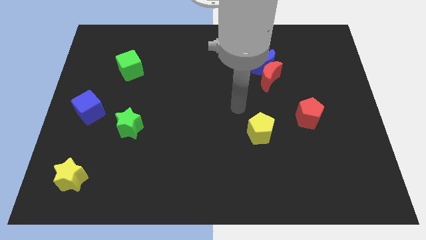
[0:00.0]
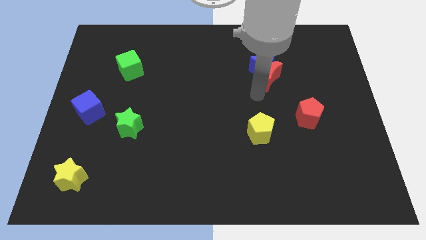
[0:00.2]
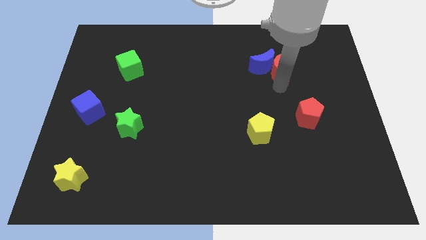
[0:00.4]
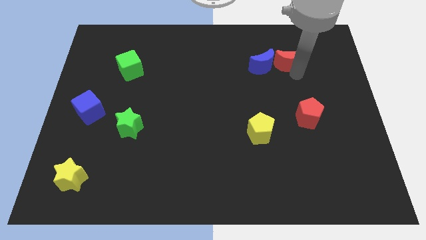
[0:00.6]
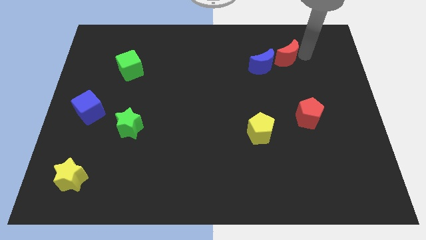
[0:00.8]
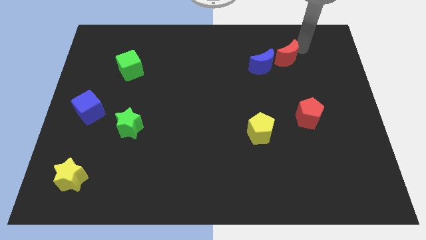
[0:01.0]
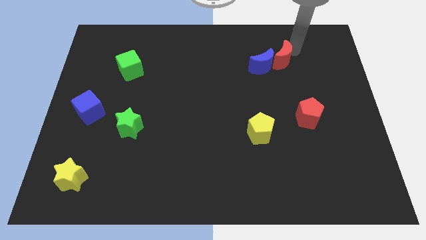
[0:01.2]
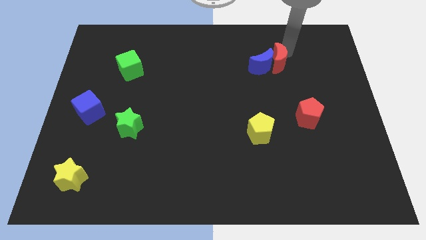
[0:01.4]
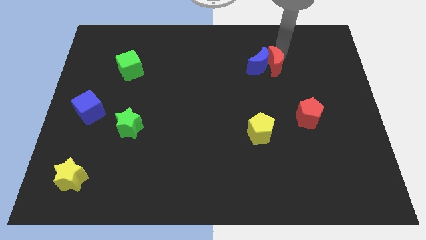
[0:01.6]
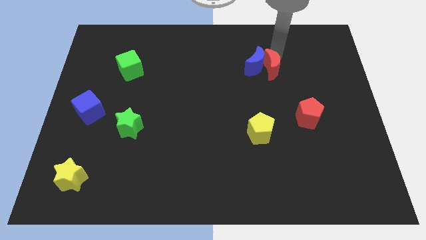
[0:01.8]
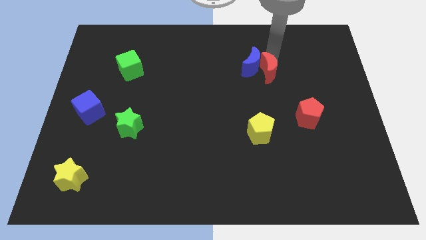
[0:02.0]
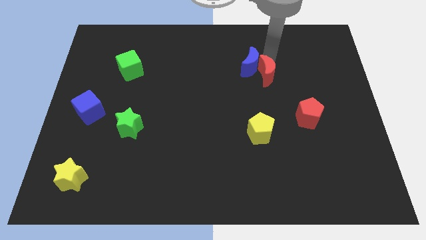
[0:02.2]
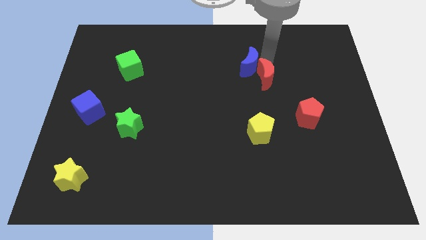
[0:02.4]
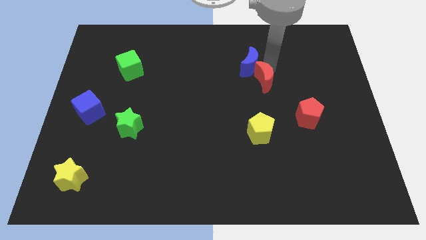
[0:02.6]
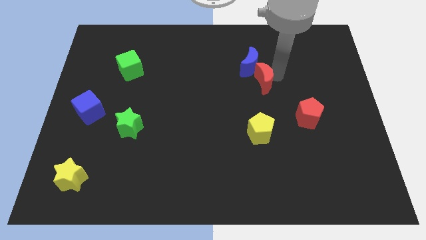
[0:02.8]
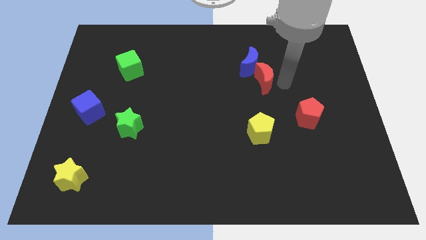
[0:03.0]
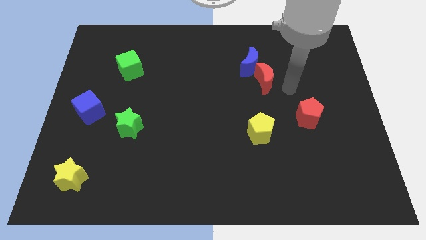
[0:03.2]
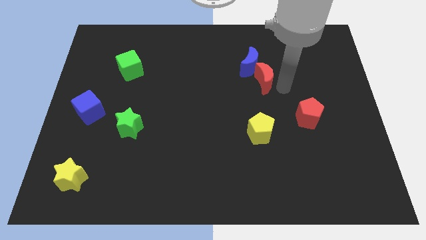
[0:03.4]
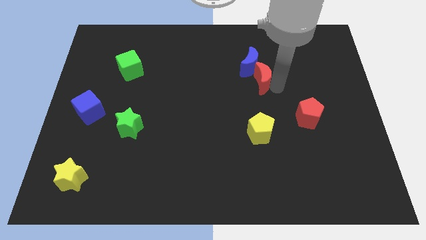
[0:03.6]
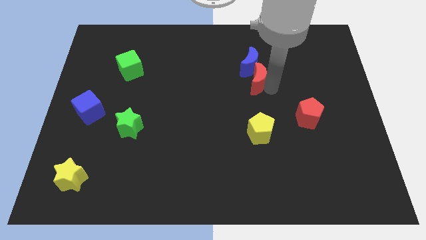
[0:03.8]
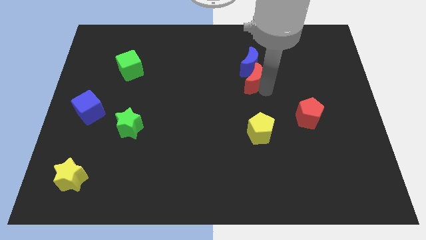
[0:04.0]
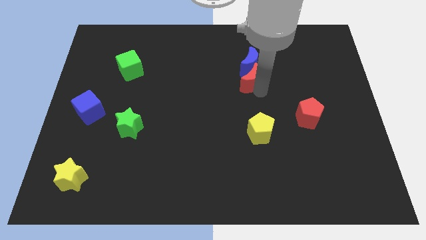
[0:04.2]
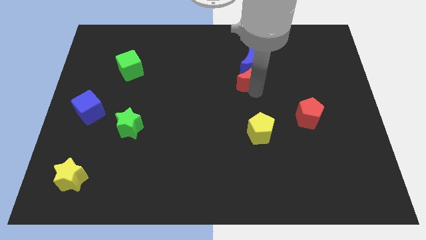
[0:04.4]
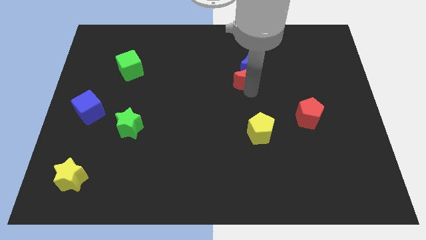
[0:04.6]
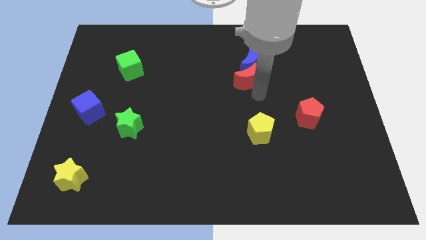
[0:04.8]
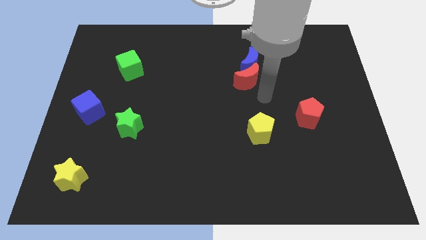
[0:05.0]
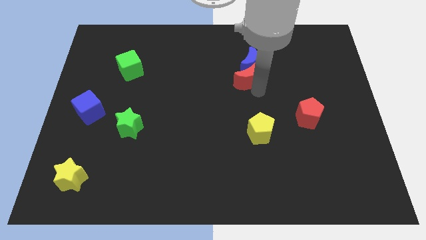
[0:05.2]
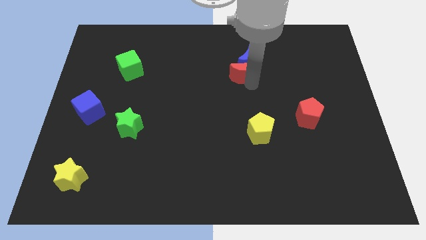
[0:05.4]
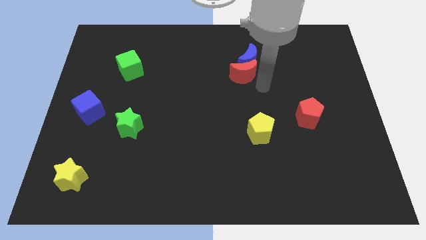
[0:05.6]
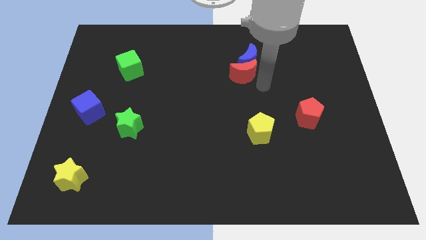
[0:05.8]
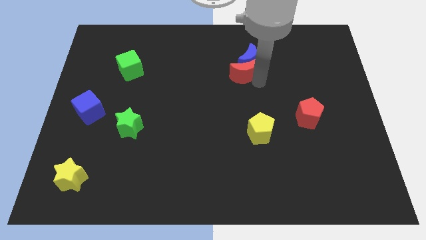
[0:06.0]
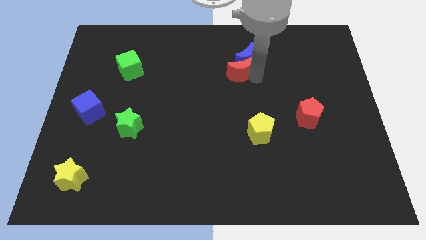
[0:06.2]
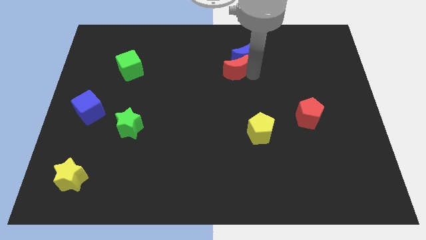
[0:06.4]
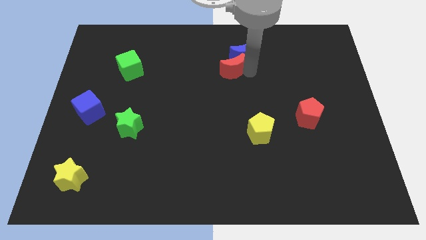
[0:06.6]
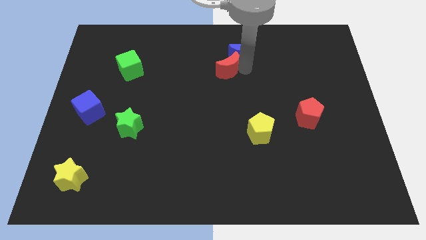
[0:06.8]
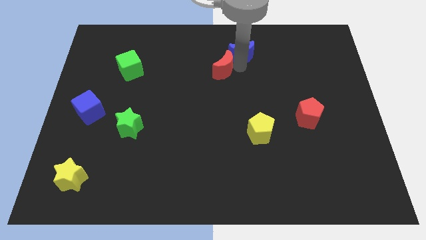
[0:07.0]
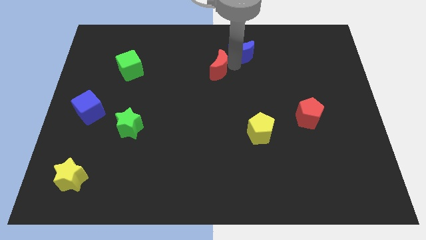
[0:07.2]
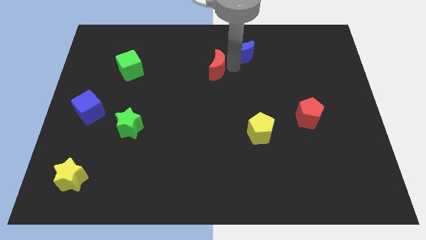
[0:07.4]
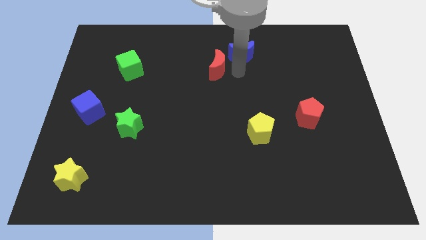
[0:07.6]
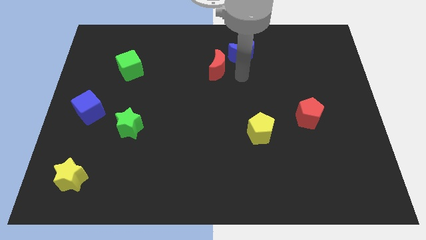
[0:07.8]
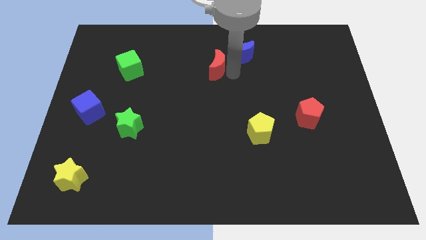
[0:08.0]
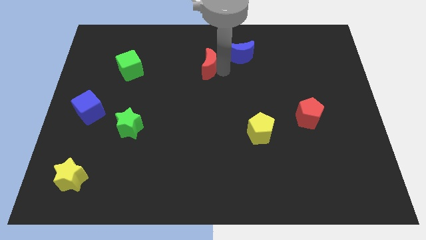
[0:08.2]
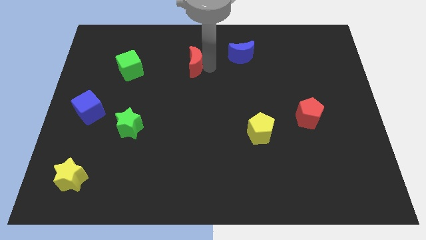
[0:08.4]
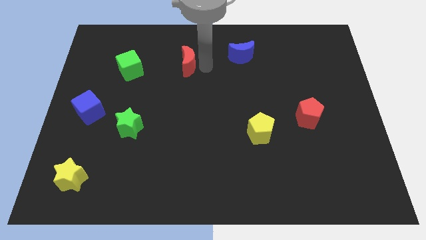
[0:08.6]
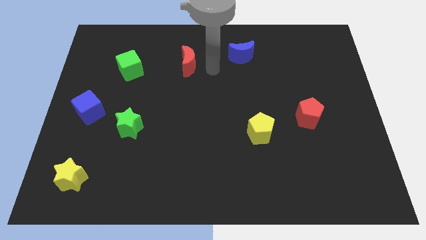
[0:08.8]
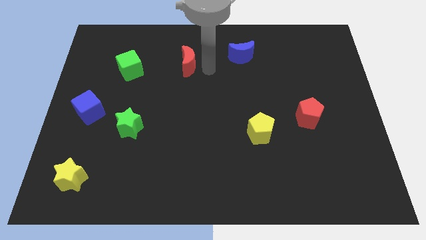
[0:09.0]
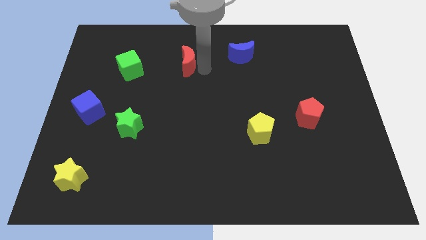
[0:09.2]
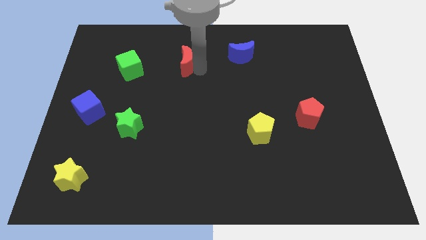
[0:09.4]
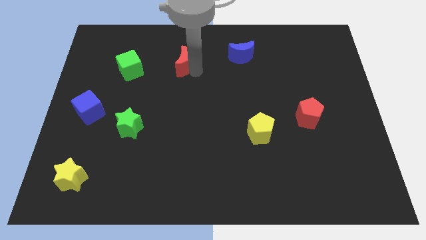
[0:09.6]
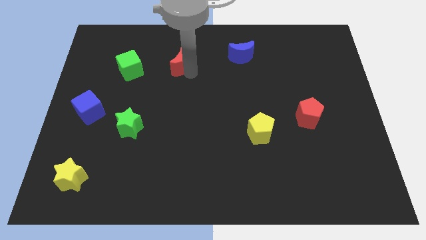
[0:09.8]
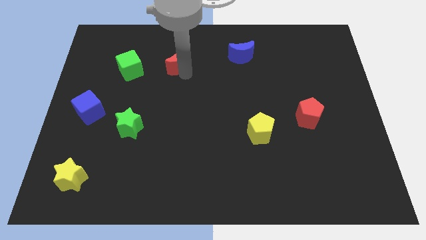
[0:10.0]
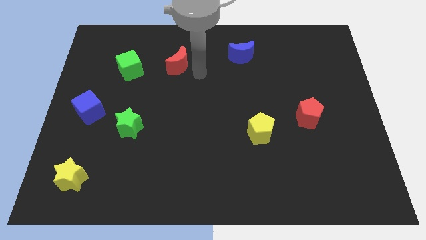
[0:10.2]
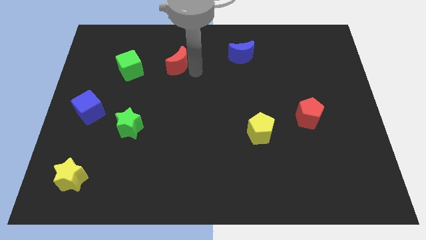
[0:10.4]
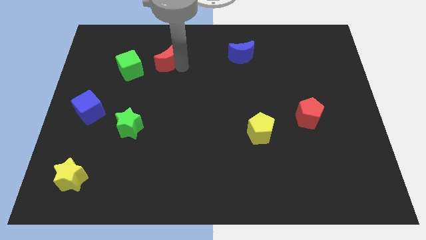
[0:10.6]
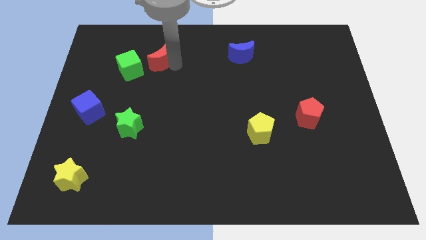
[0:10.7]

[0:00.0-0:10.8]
slide the red moon diagonally up and to the right of the green cube

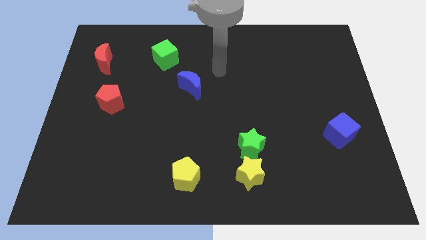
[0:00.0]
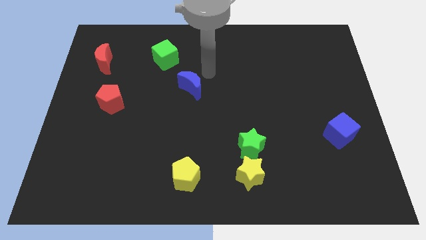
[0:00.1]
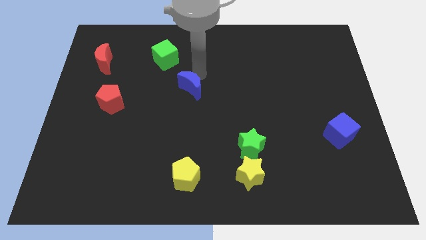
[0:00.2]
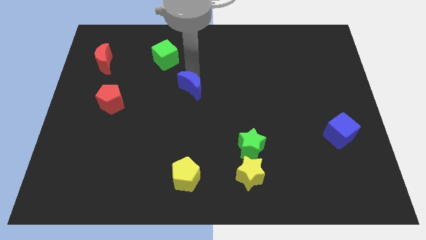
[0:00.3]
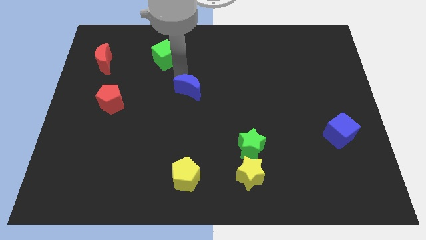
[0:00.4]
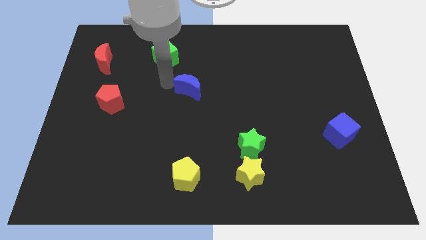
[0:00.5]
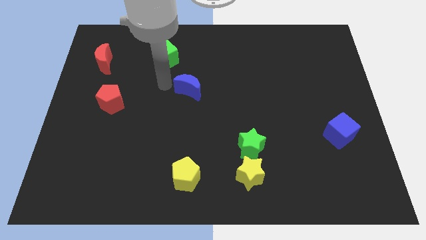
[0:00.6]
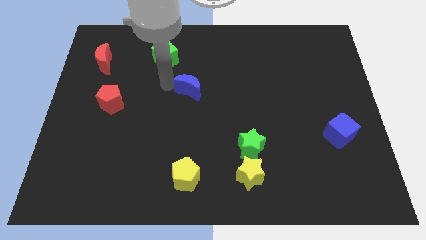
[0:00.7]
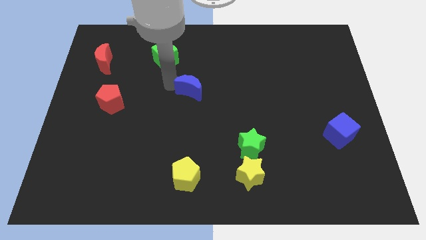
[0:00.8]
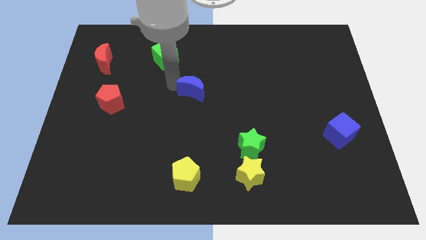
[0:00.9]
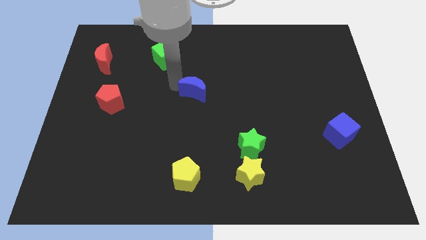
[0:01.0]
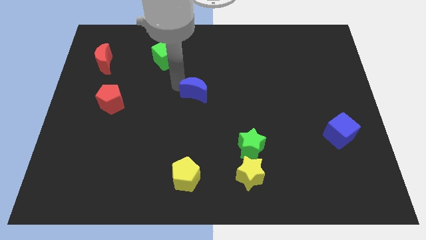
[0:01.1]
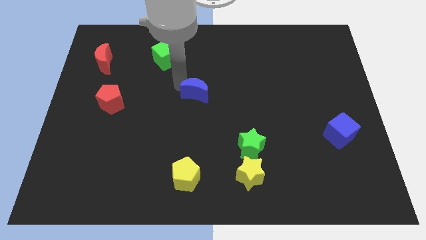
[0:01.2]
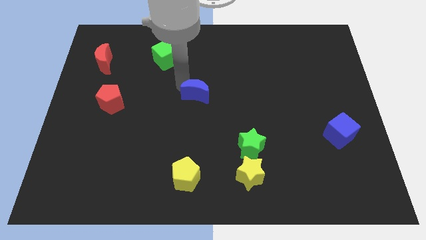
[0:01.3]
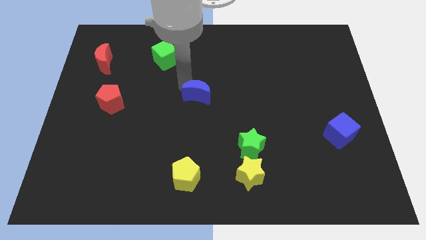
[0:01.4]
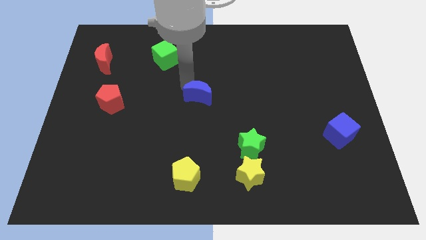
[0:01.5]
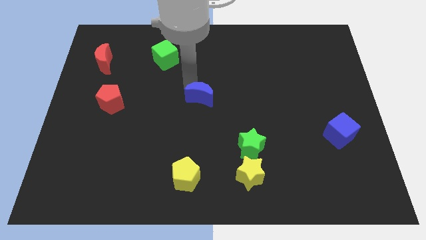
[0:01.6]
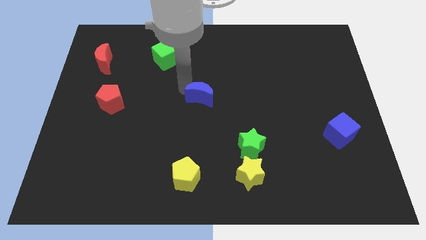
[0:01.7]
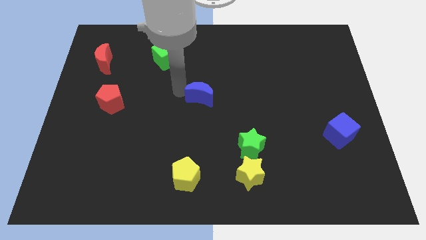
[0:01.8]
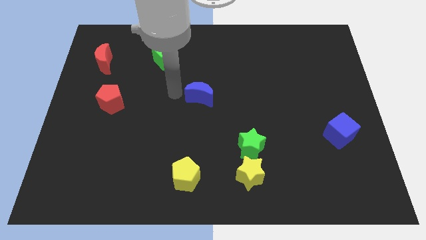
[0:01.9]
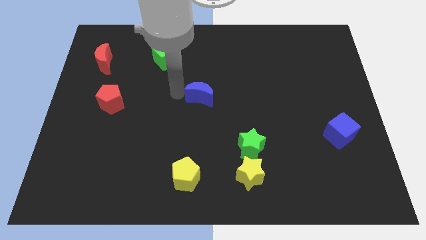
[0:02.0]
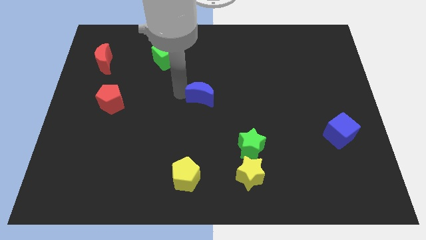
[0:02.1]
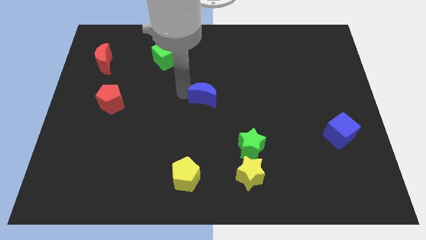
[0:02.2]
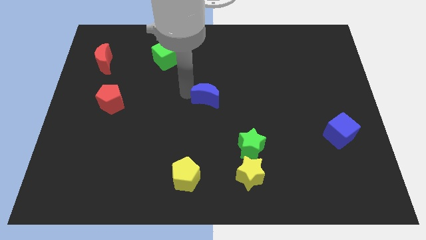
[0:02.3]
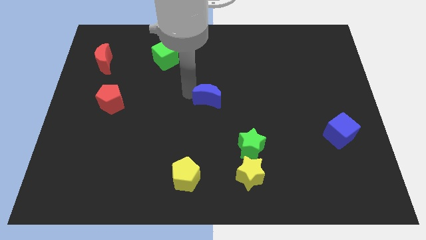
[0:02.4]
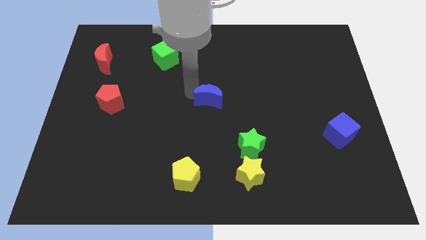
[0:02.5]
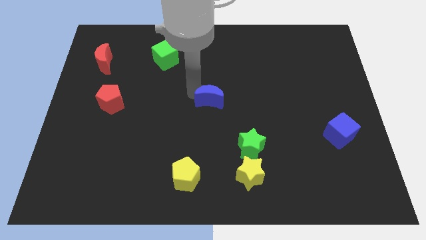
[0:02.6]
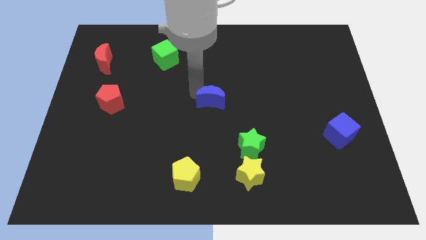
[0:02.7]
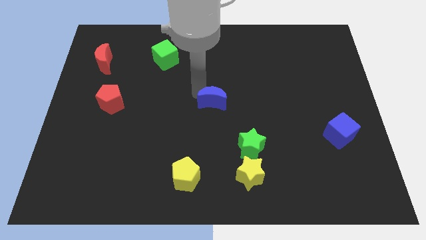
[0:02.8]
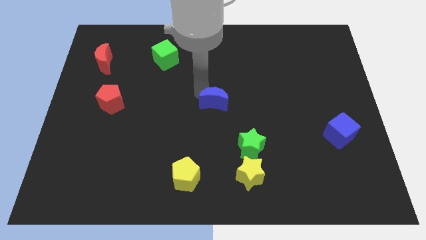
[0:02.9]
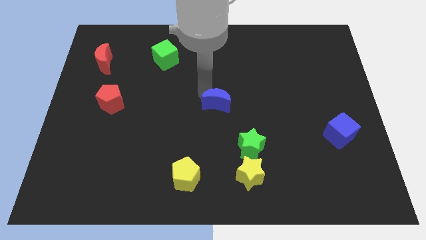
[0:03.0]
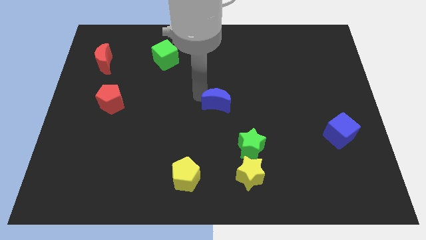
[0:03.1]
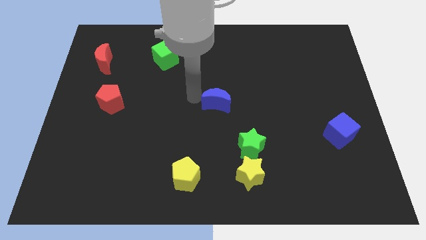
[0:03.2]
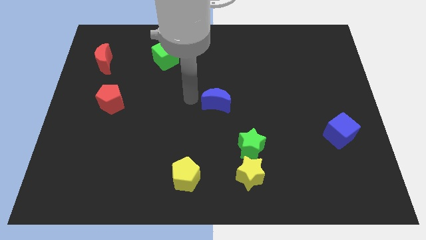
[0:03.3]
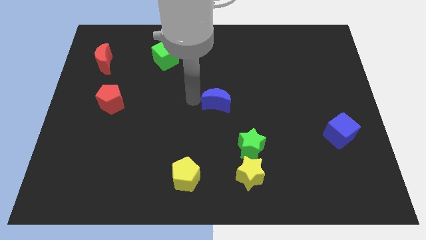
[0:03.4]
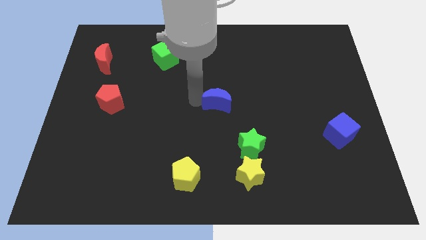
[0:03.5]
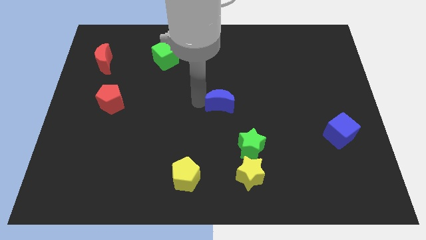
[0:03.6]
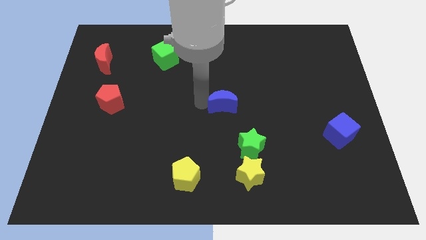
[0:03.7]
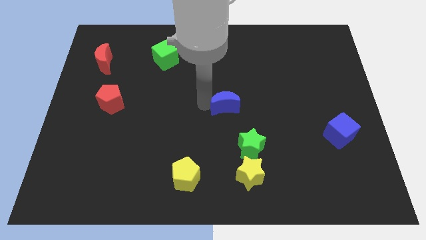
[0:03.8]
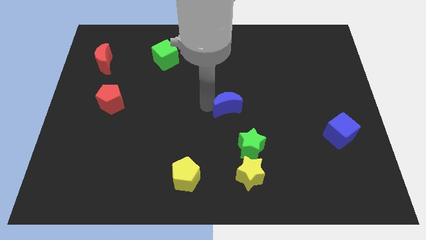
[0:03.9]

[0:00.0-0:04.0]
put the blue moon to the top of the green star
